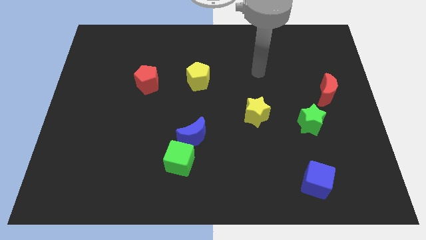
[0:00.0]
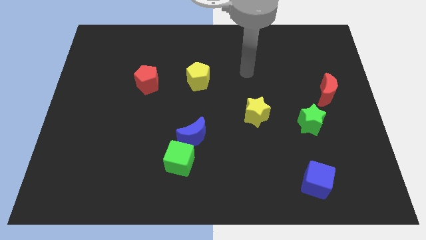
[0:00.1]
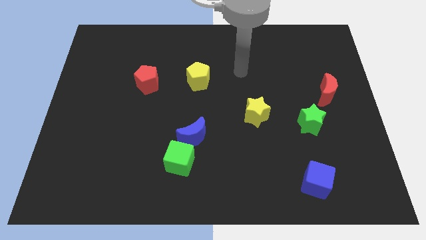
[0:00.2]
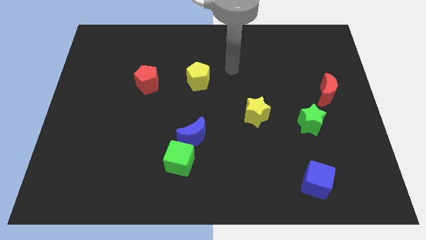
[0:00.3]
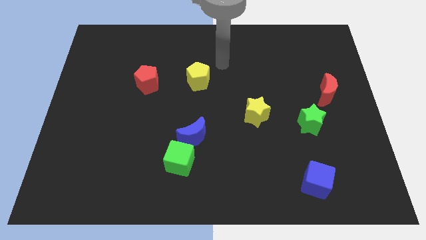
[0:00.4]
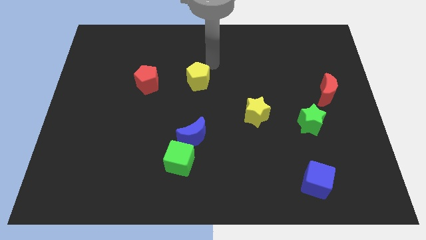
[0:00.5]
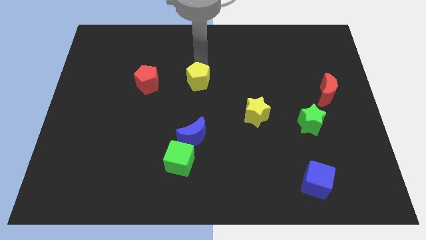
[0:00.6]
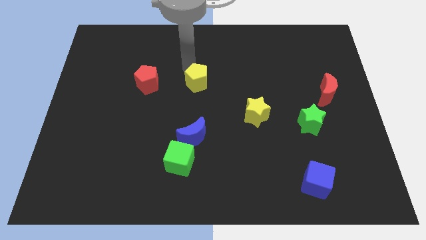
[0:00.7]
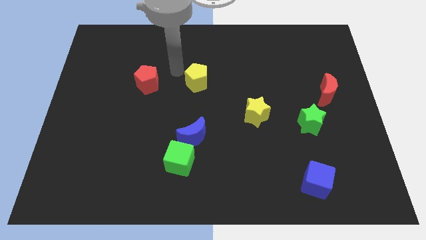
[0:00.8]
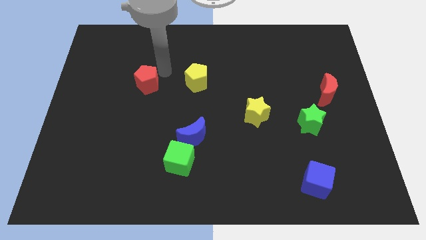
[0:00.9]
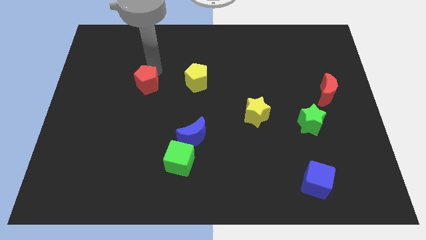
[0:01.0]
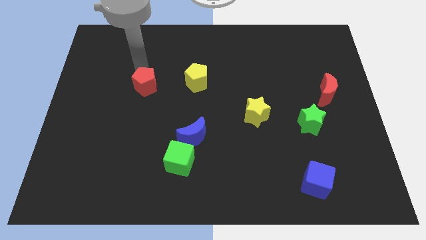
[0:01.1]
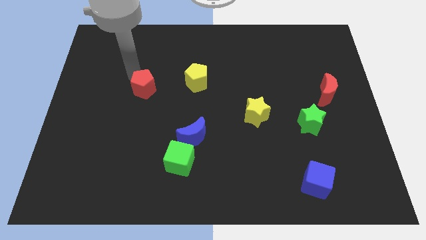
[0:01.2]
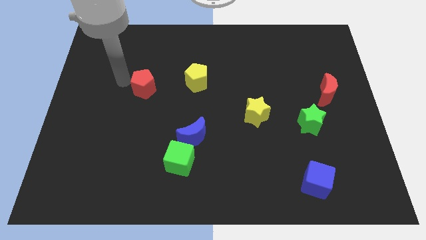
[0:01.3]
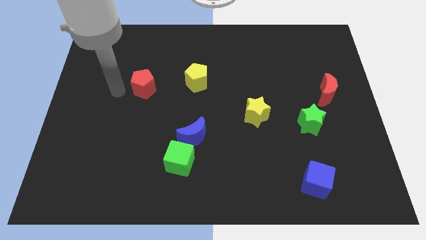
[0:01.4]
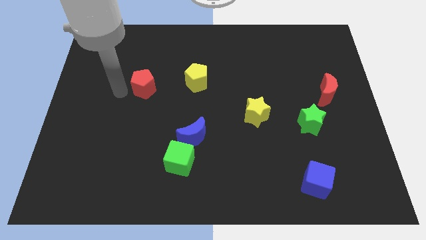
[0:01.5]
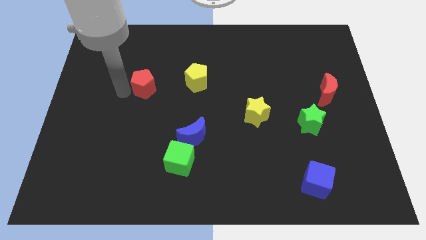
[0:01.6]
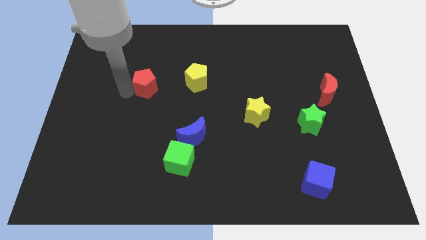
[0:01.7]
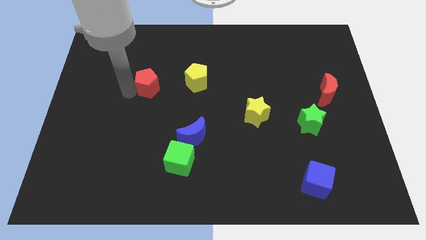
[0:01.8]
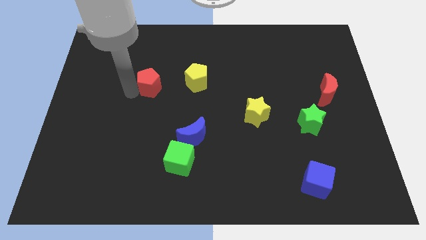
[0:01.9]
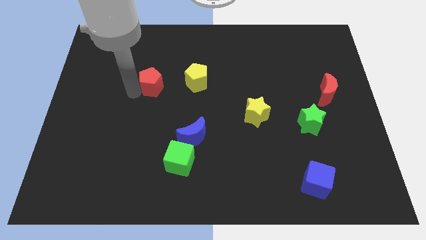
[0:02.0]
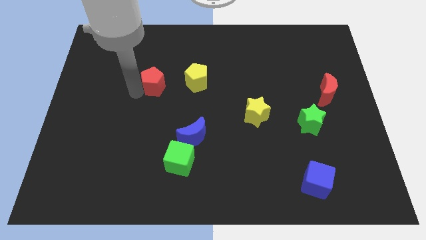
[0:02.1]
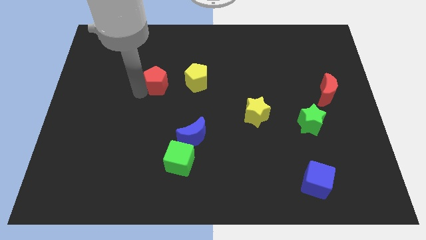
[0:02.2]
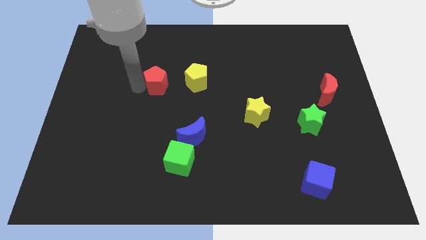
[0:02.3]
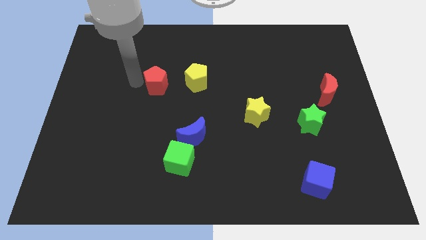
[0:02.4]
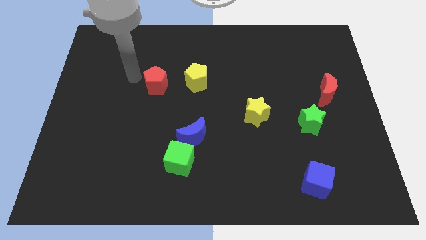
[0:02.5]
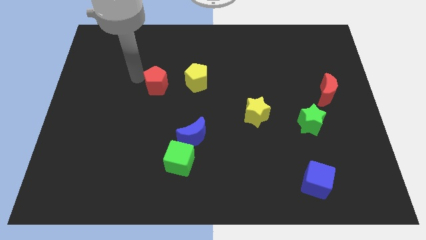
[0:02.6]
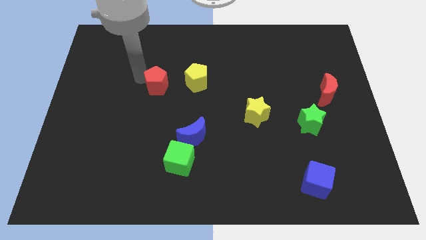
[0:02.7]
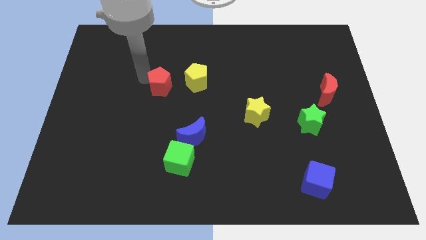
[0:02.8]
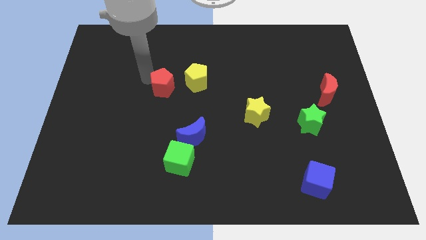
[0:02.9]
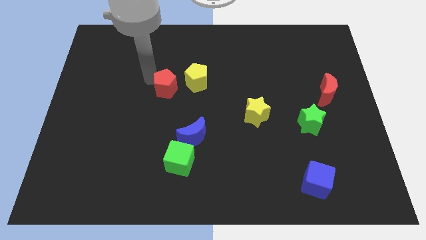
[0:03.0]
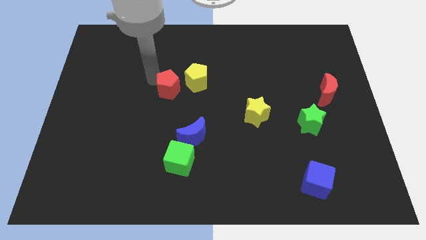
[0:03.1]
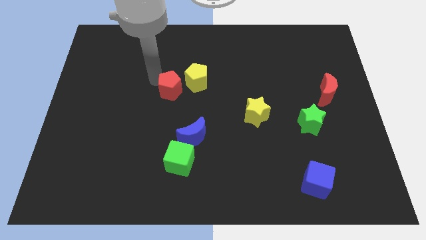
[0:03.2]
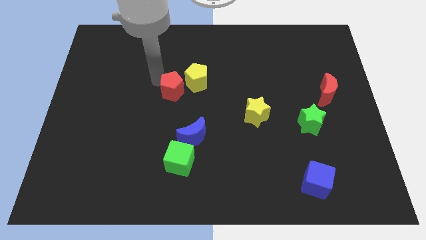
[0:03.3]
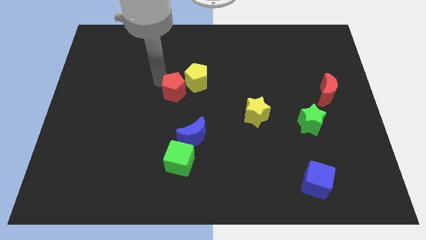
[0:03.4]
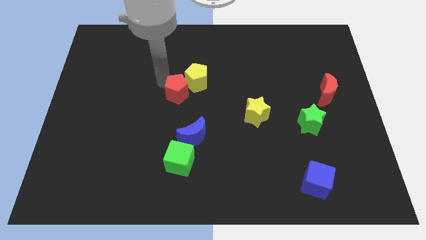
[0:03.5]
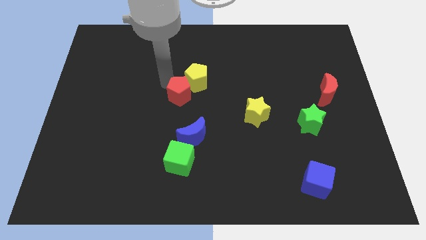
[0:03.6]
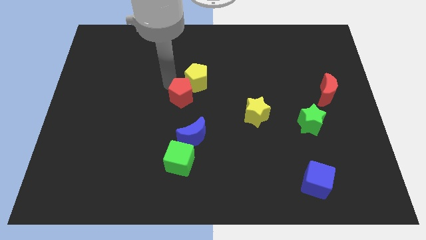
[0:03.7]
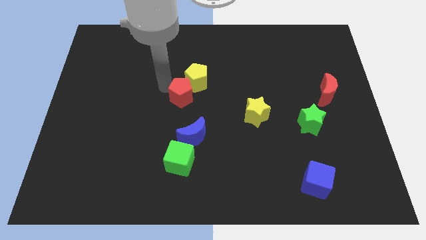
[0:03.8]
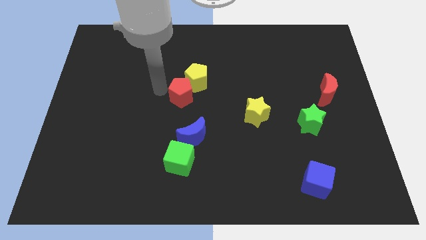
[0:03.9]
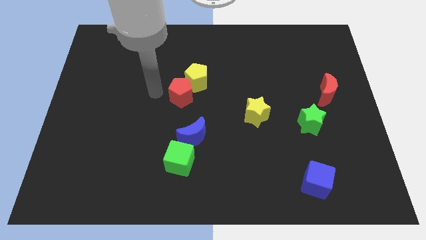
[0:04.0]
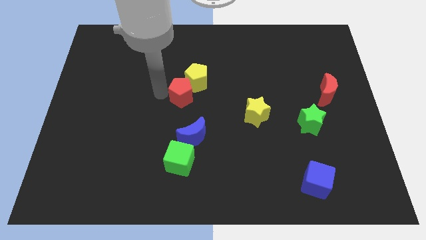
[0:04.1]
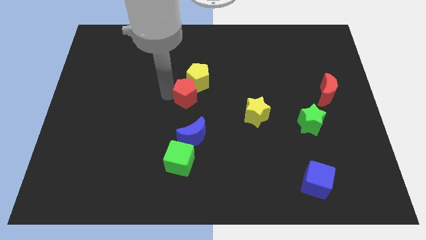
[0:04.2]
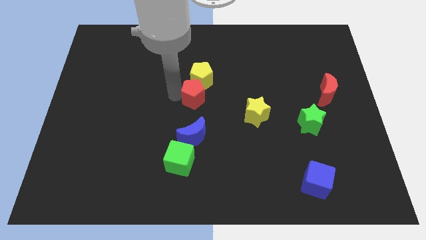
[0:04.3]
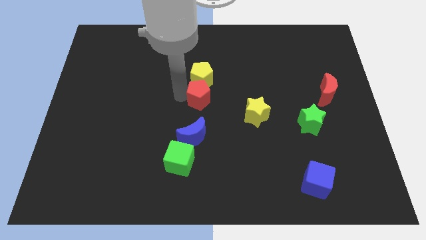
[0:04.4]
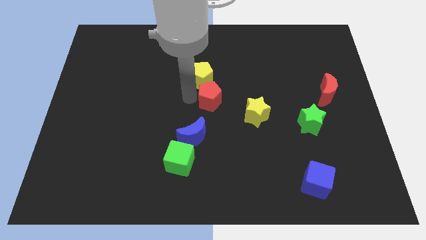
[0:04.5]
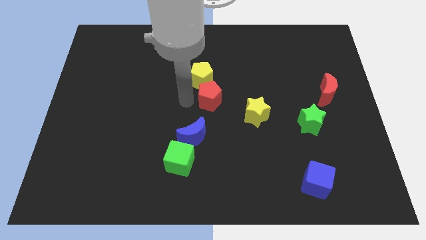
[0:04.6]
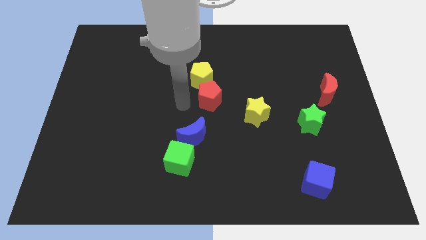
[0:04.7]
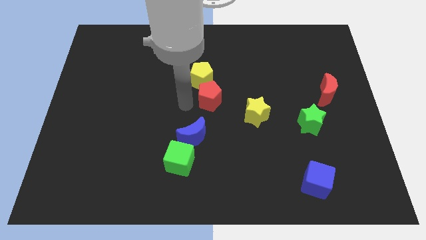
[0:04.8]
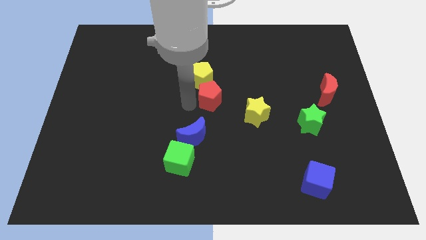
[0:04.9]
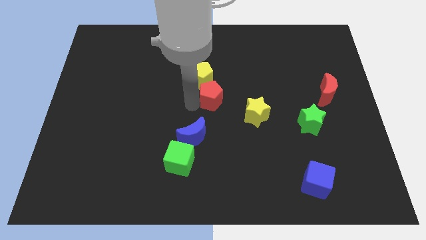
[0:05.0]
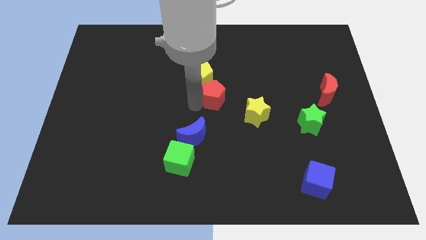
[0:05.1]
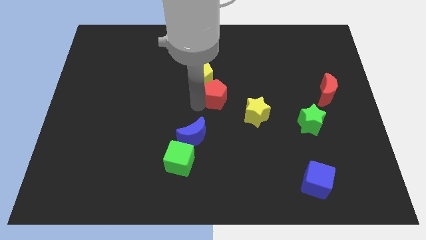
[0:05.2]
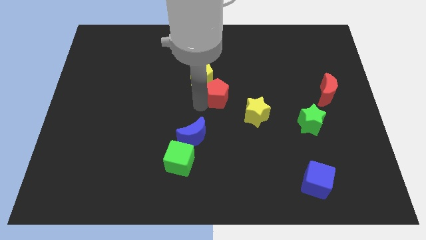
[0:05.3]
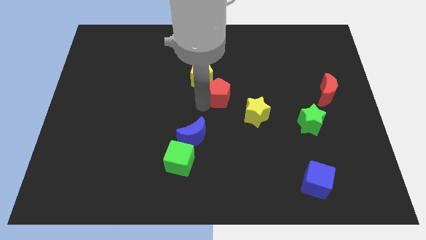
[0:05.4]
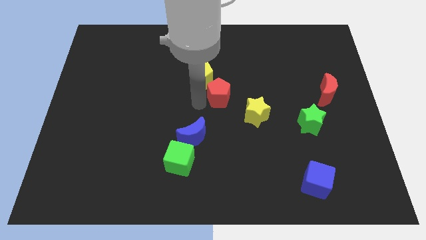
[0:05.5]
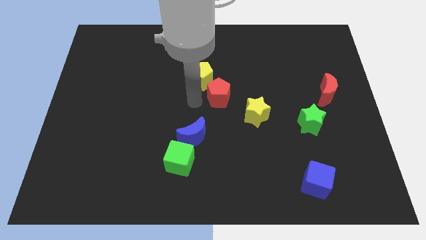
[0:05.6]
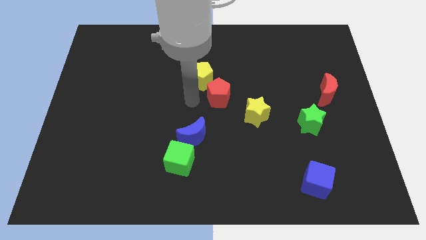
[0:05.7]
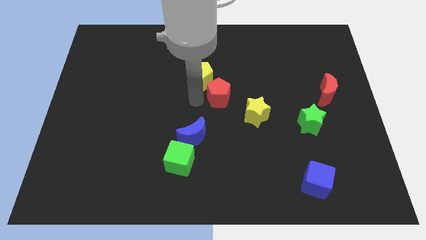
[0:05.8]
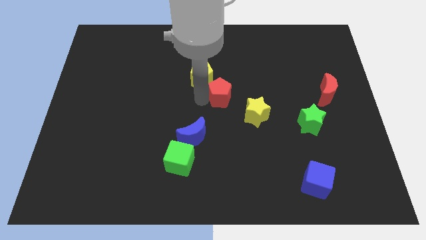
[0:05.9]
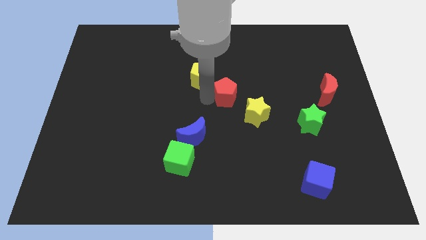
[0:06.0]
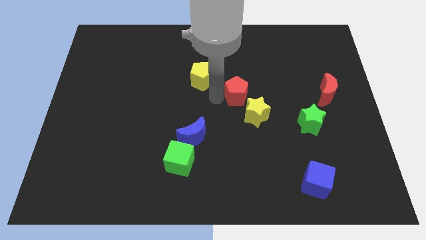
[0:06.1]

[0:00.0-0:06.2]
slide the red pentagon right

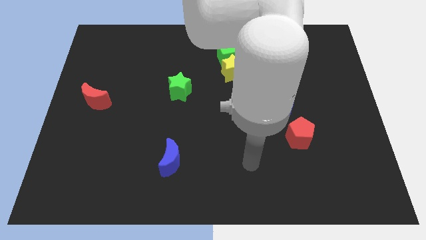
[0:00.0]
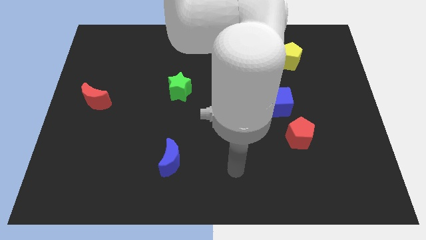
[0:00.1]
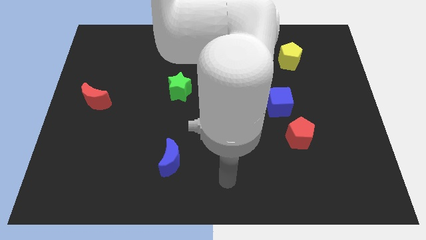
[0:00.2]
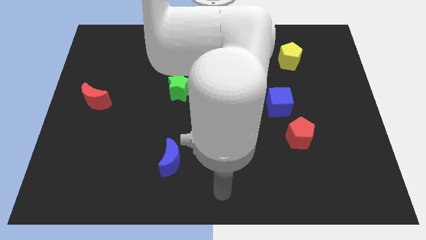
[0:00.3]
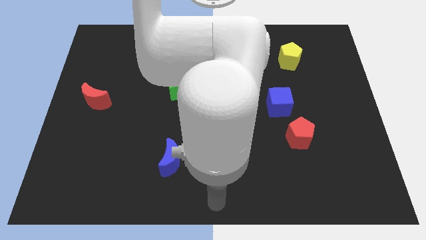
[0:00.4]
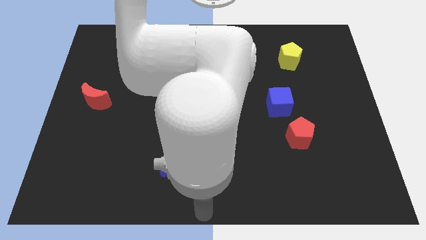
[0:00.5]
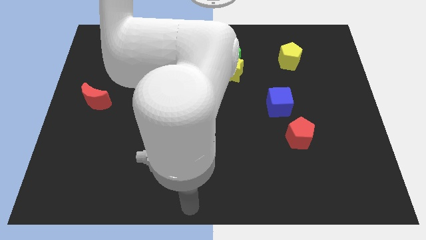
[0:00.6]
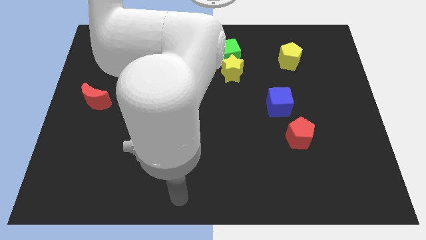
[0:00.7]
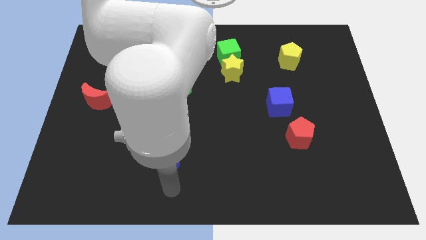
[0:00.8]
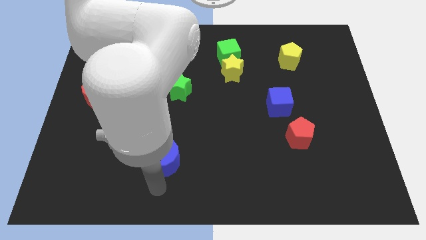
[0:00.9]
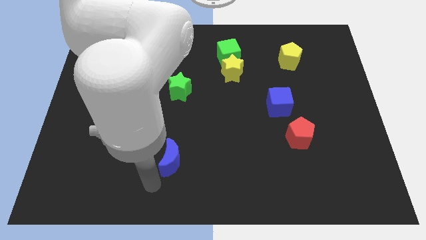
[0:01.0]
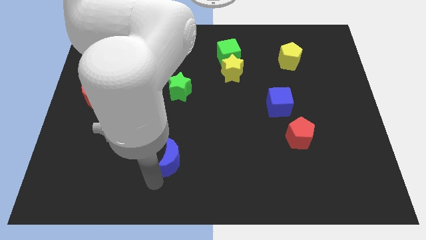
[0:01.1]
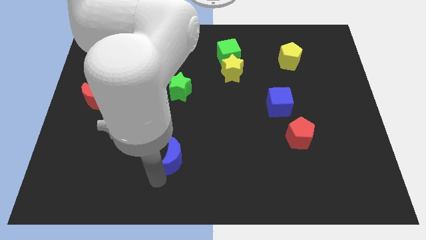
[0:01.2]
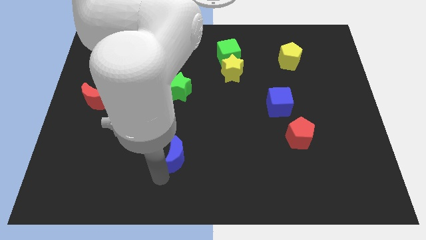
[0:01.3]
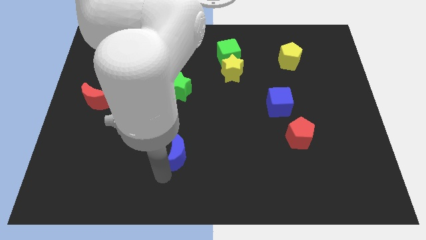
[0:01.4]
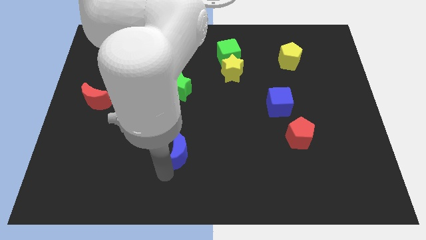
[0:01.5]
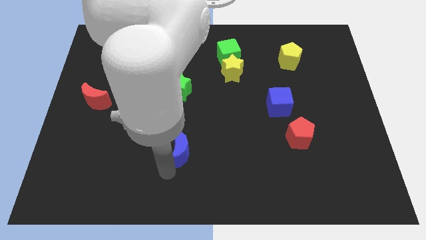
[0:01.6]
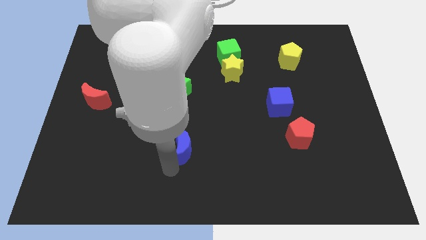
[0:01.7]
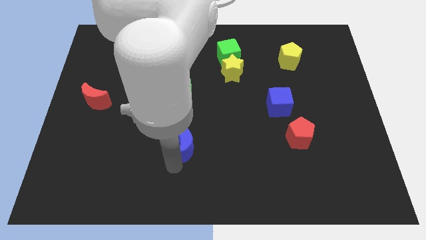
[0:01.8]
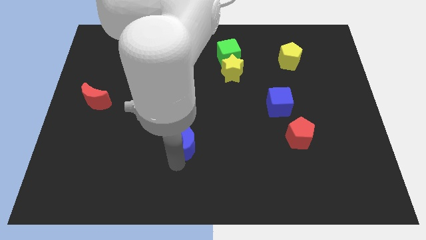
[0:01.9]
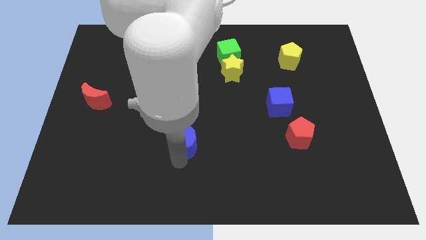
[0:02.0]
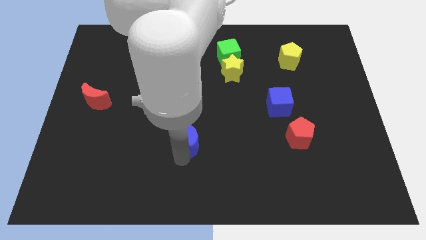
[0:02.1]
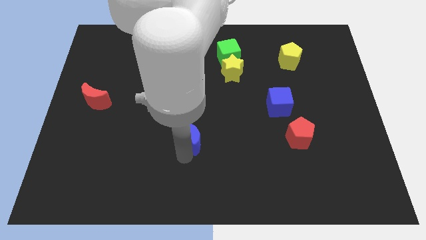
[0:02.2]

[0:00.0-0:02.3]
slightly move the blue moon diagonally up and to the right
